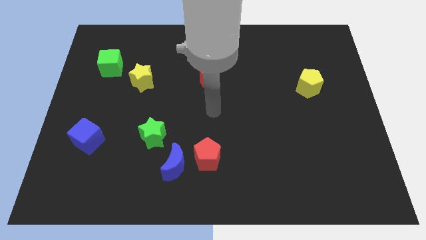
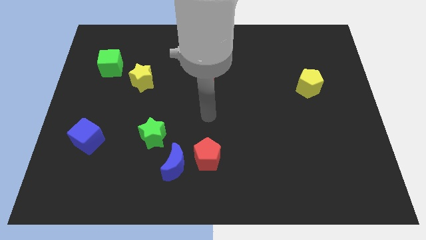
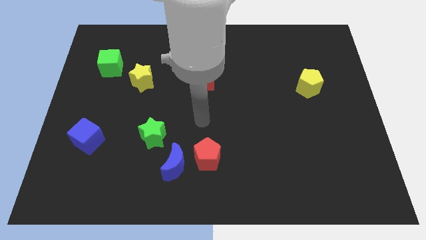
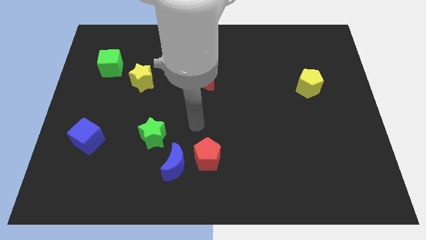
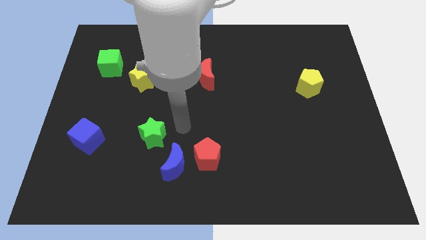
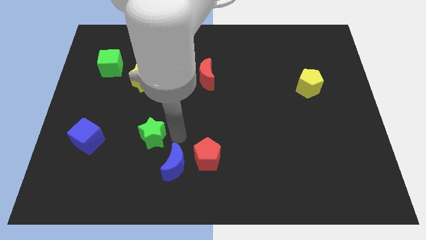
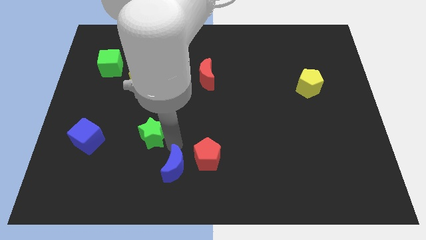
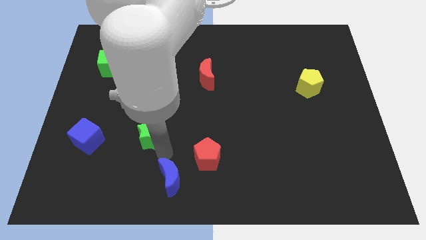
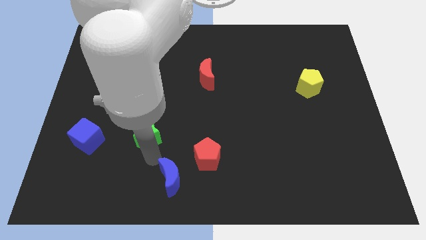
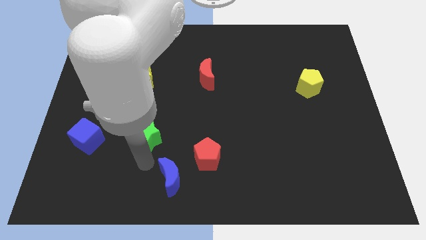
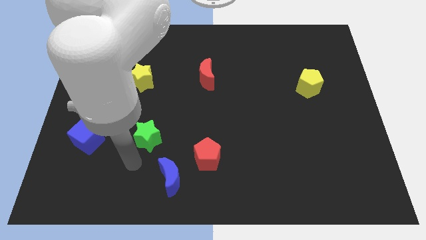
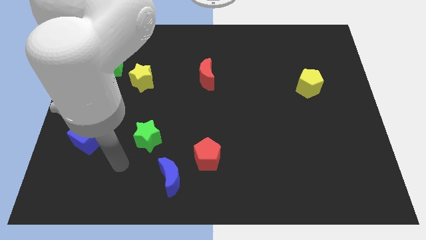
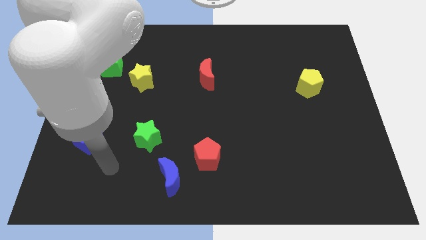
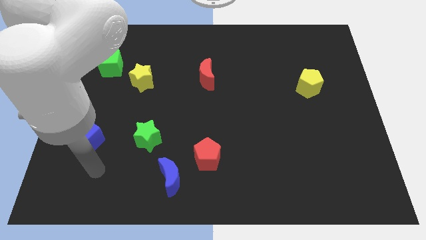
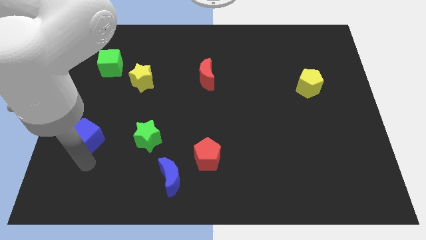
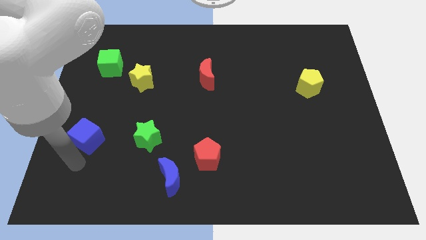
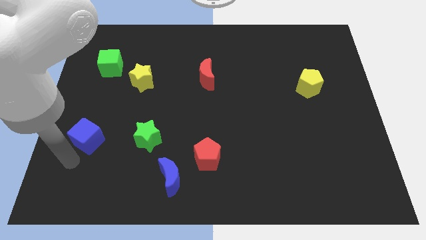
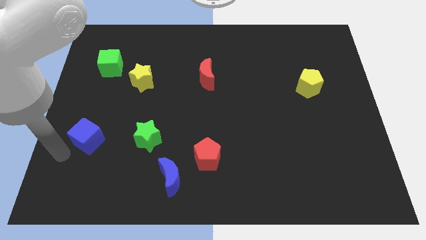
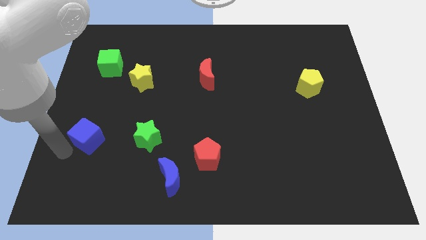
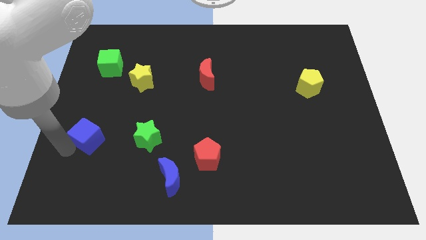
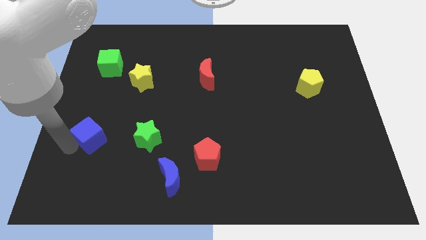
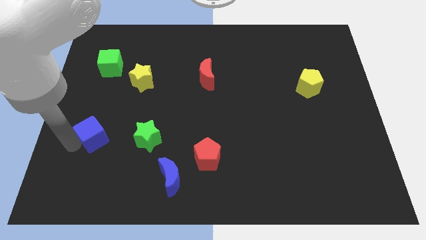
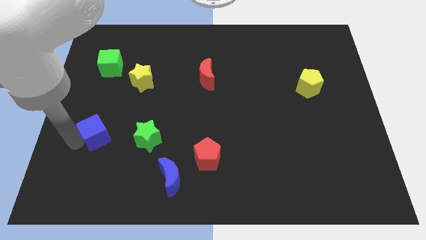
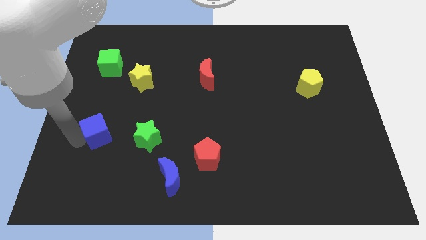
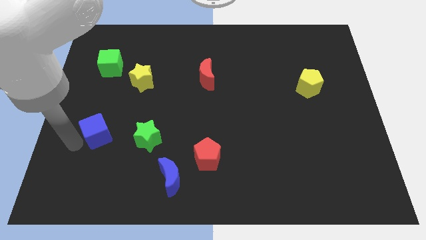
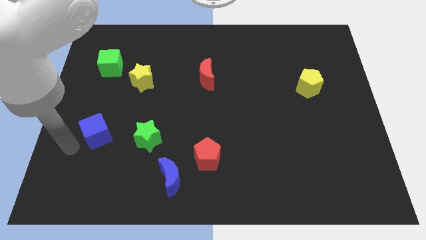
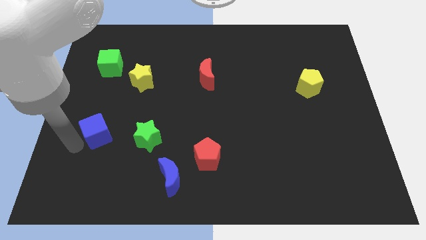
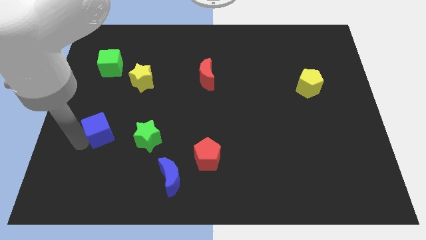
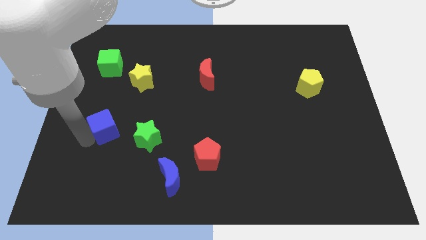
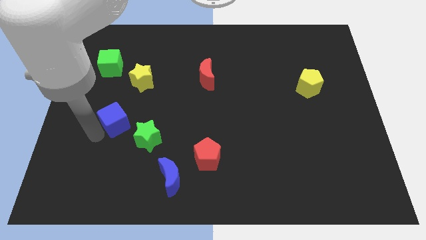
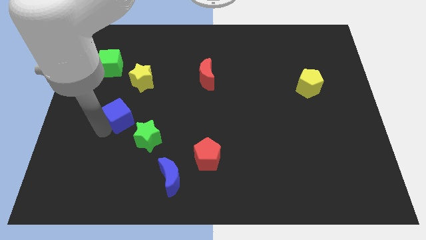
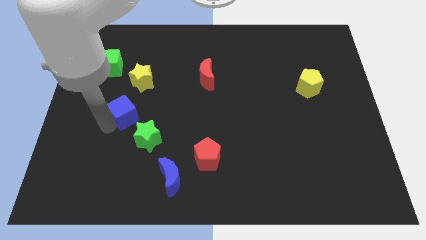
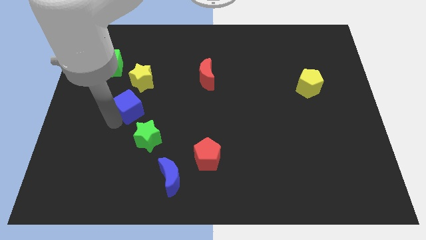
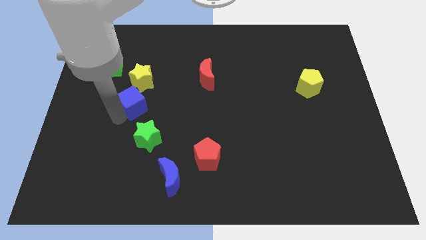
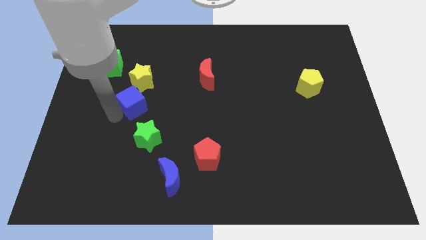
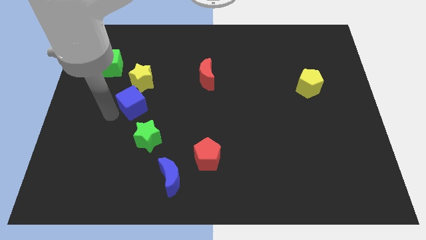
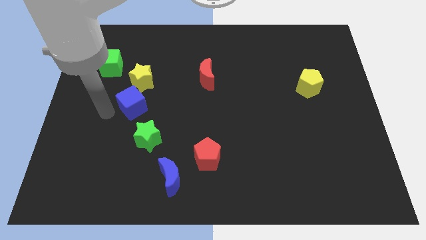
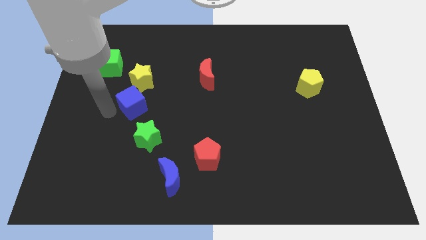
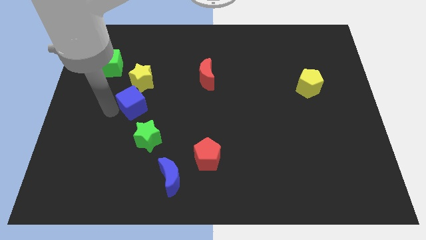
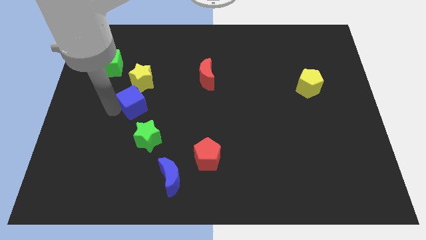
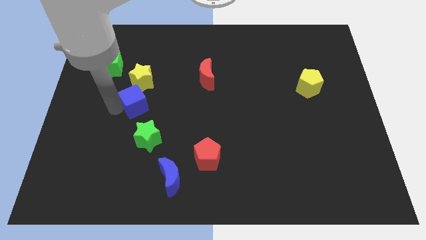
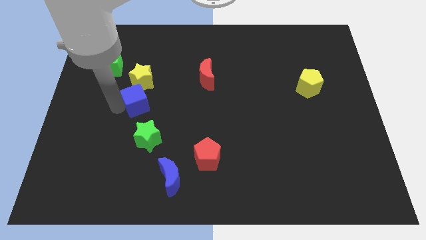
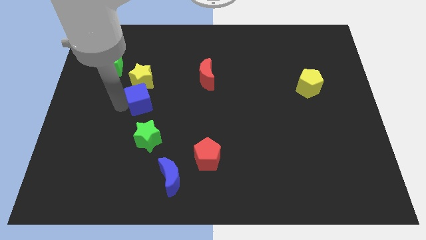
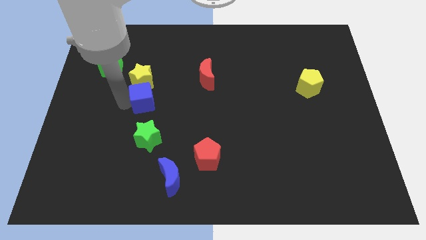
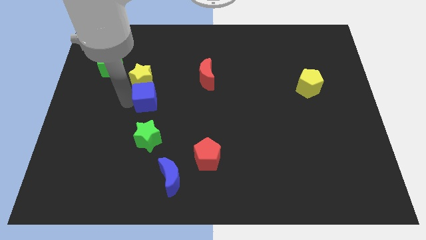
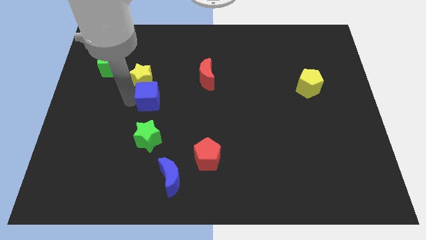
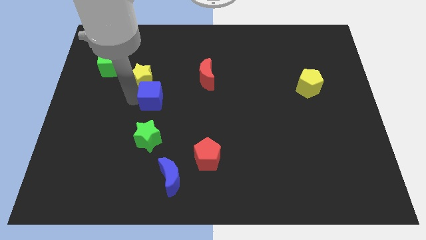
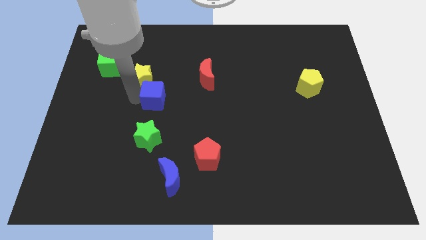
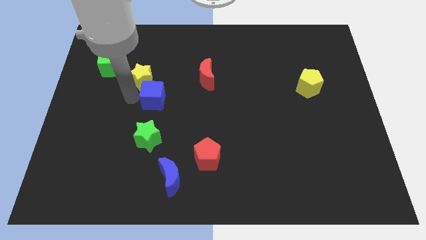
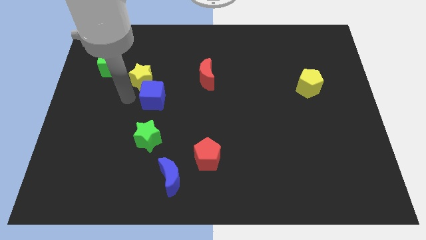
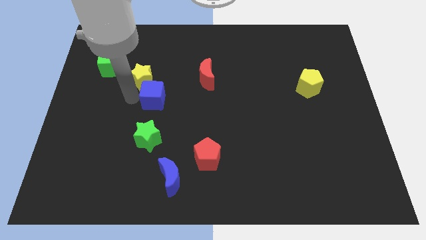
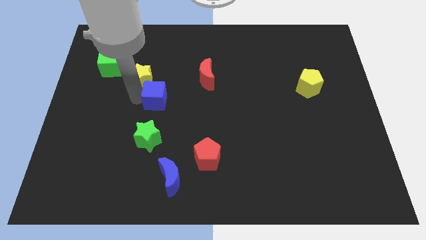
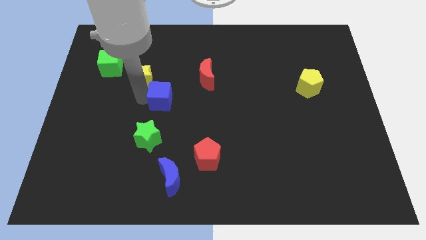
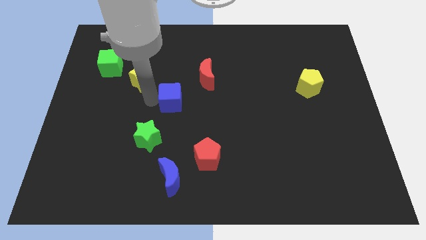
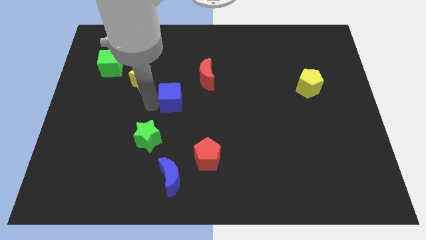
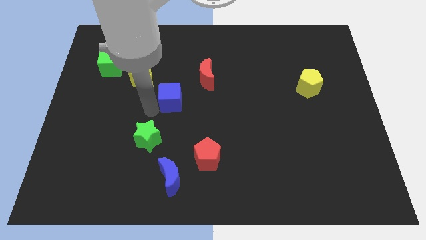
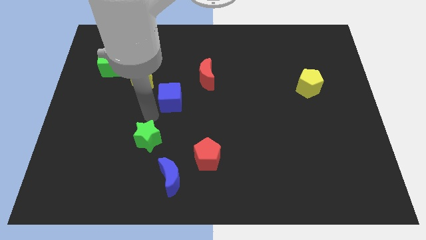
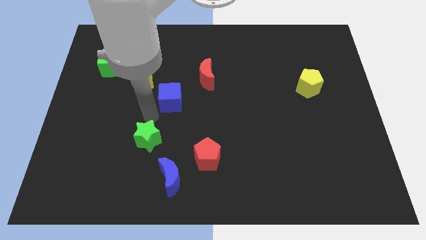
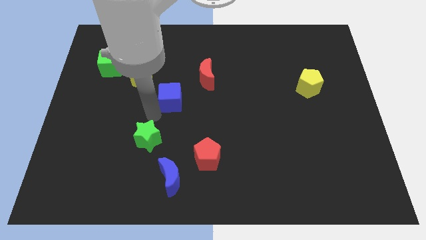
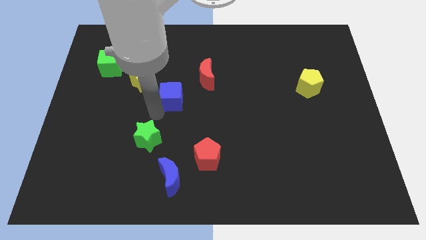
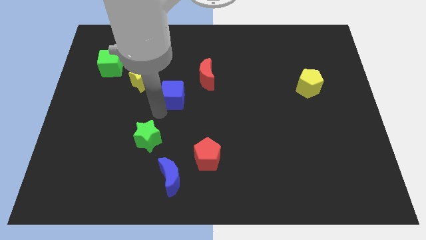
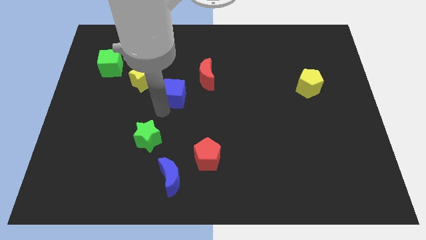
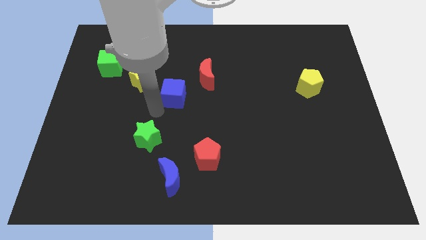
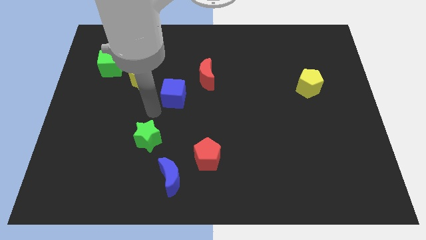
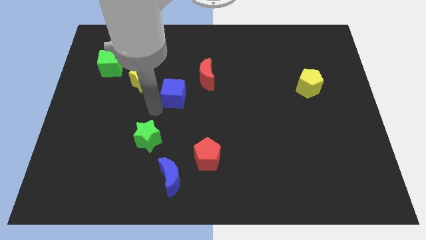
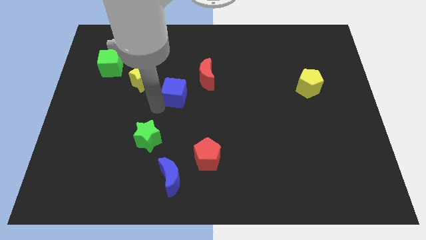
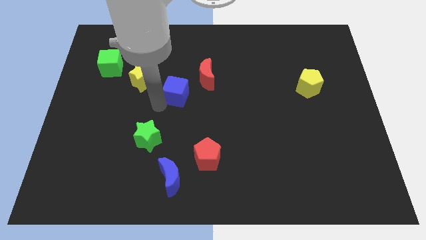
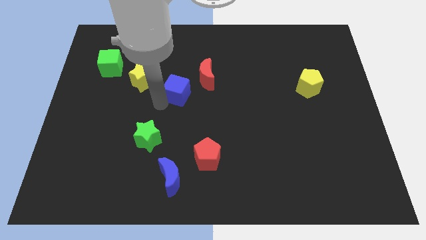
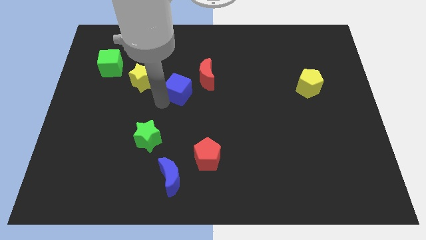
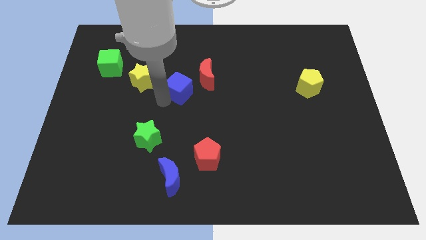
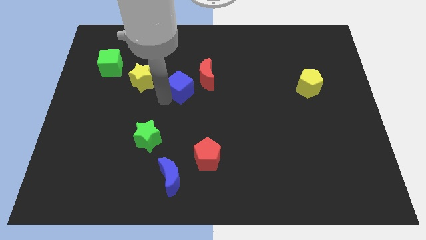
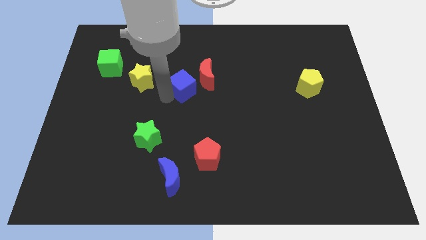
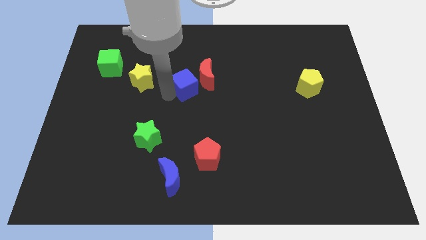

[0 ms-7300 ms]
move the blue cube to the red moon

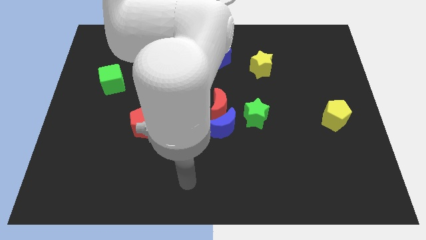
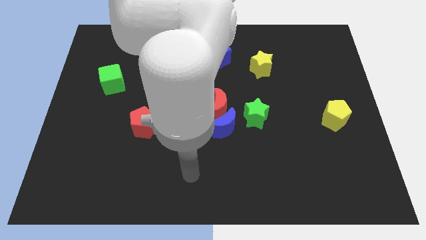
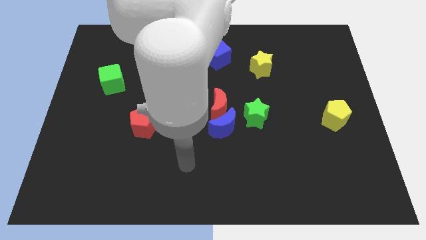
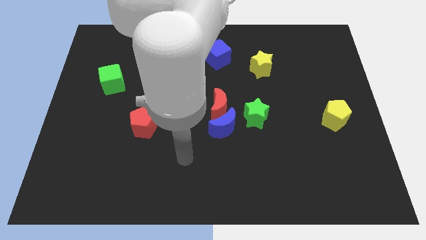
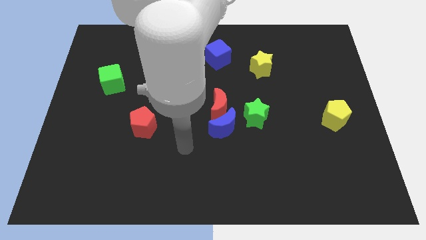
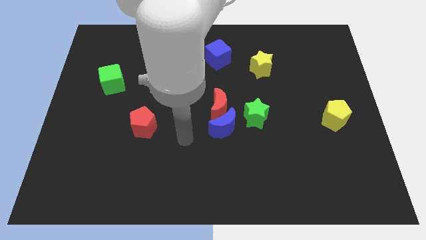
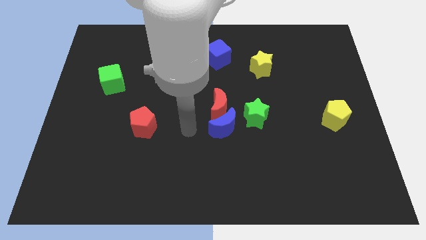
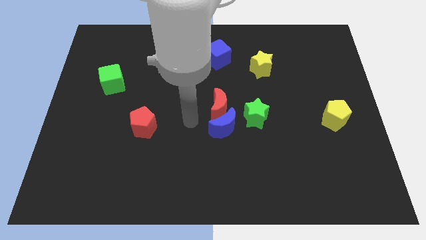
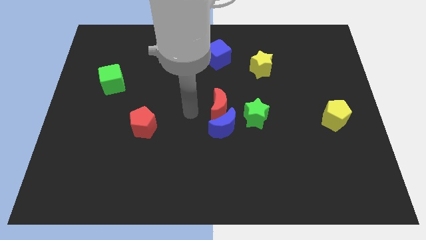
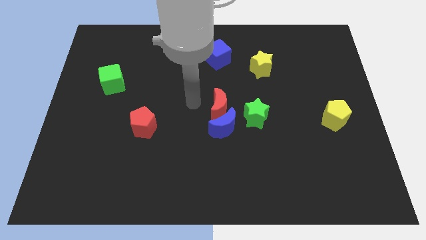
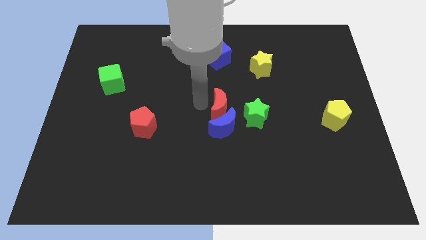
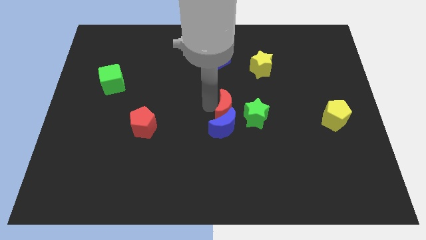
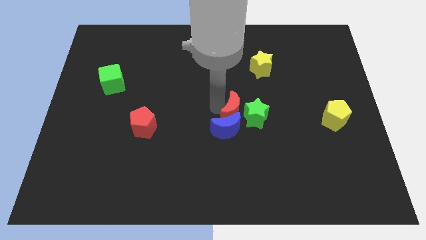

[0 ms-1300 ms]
push the red moon next to the green star
